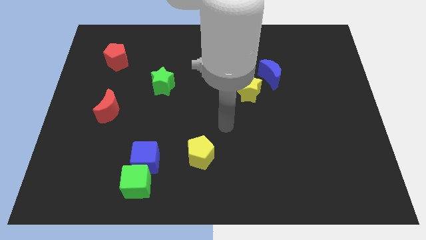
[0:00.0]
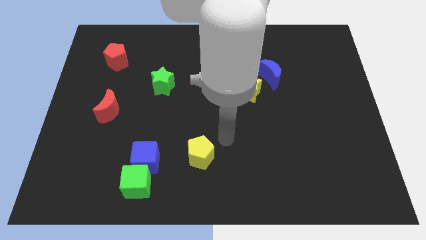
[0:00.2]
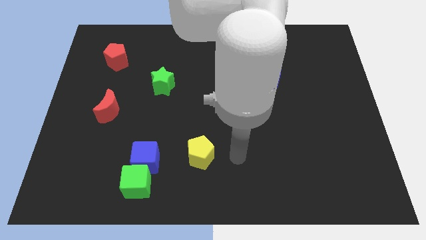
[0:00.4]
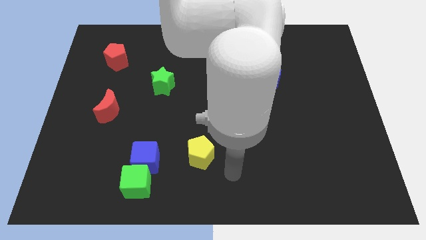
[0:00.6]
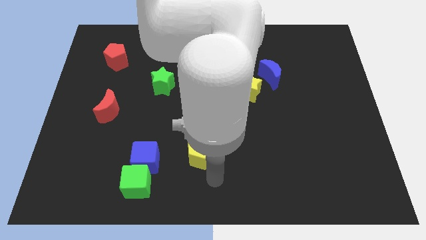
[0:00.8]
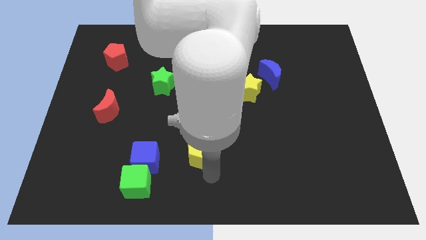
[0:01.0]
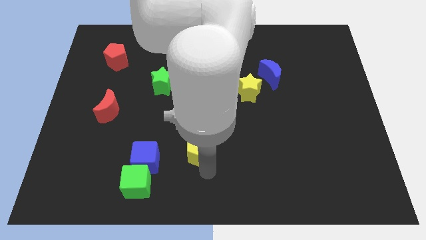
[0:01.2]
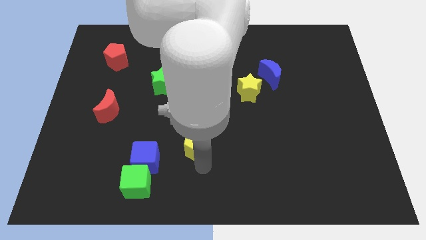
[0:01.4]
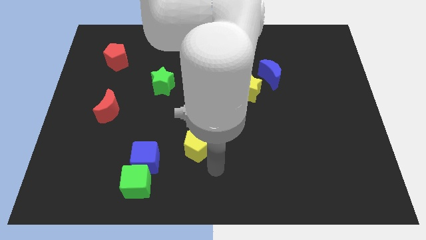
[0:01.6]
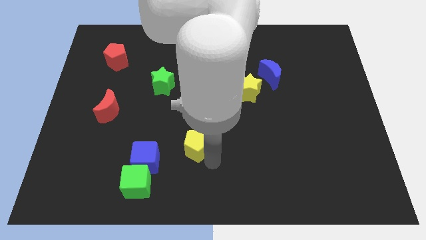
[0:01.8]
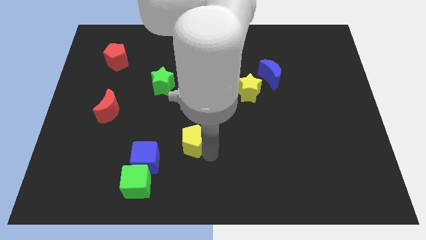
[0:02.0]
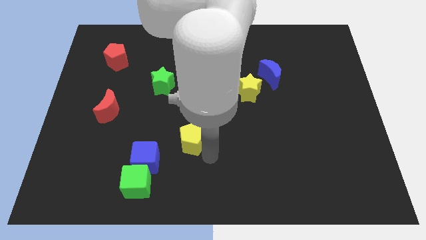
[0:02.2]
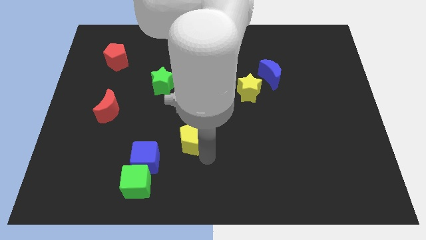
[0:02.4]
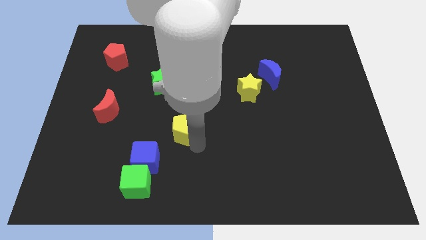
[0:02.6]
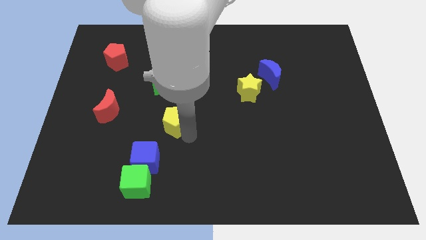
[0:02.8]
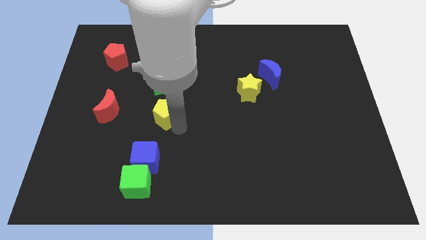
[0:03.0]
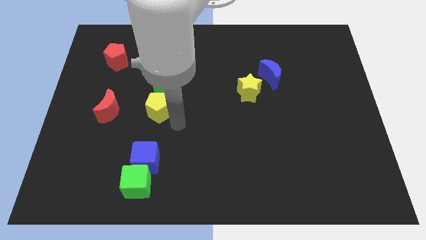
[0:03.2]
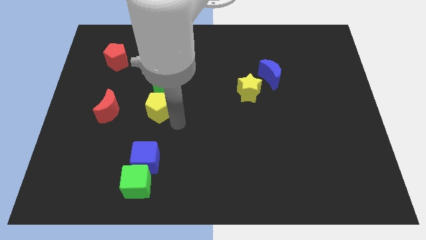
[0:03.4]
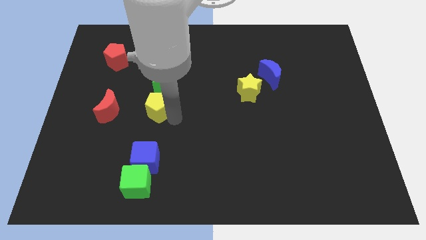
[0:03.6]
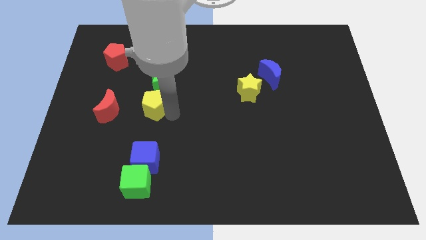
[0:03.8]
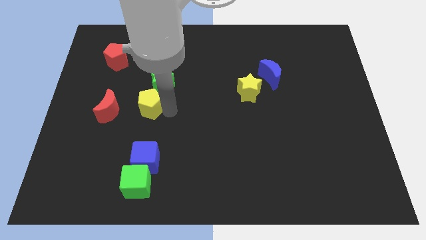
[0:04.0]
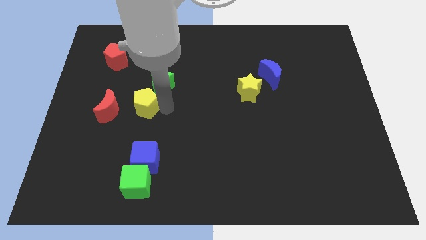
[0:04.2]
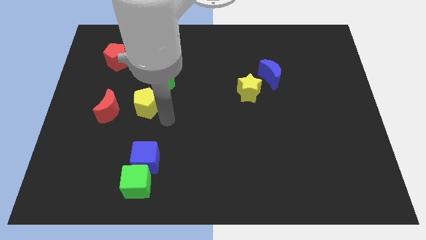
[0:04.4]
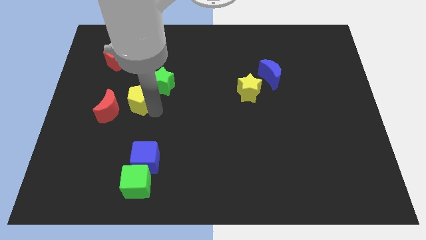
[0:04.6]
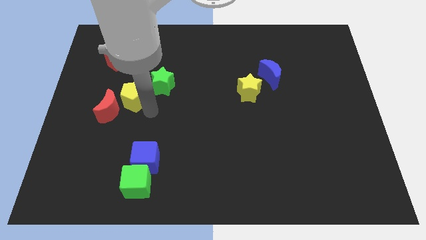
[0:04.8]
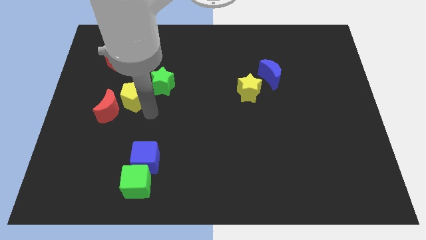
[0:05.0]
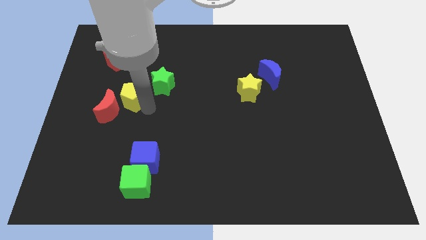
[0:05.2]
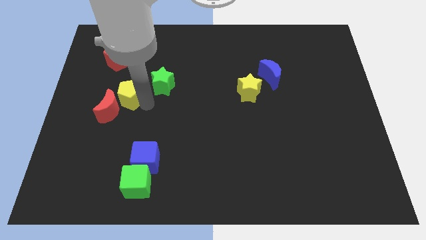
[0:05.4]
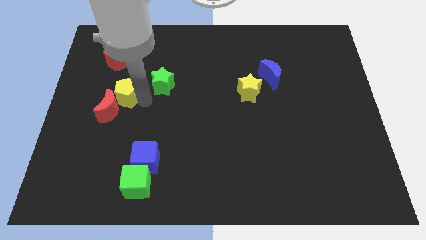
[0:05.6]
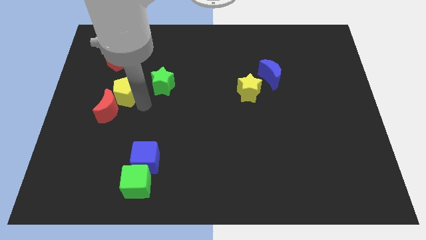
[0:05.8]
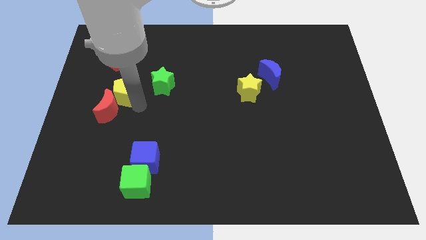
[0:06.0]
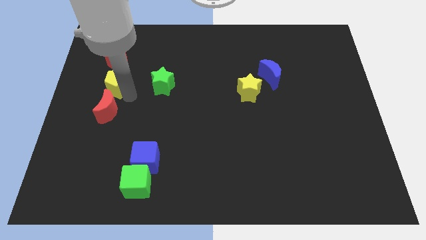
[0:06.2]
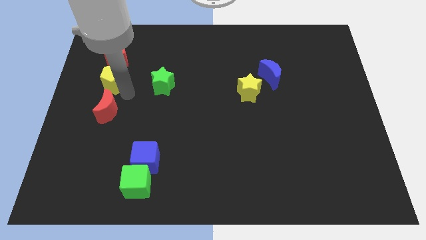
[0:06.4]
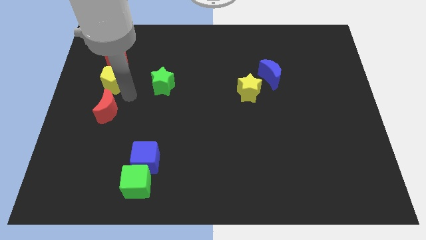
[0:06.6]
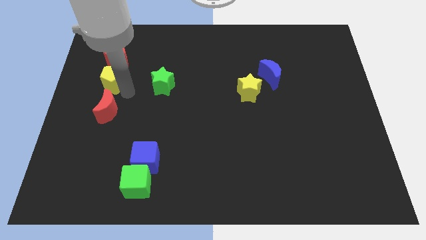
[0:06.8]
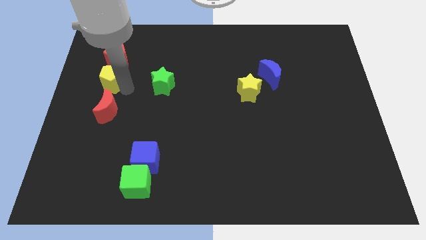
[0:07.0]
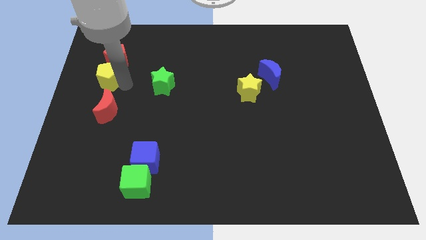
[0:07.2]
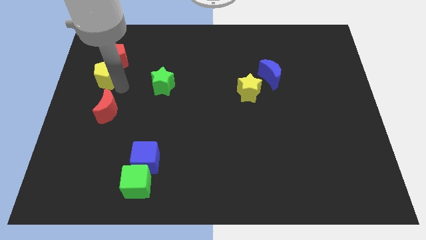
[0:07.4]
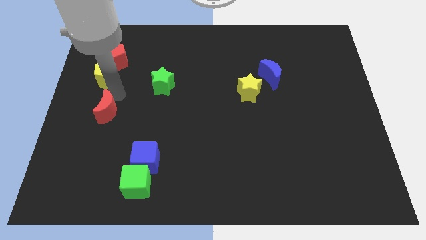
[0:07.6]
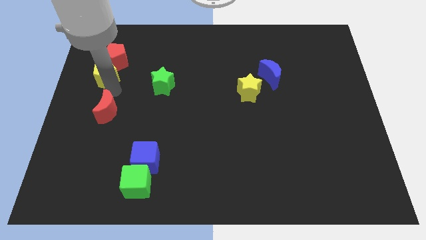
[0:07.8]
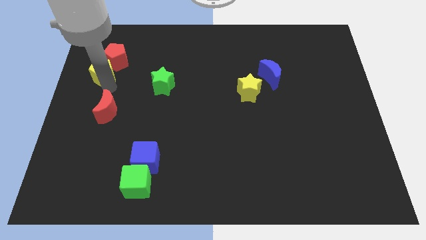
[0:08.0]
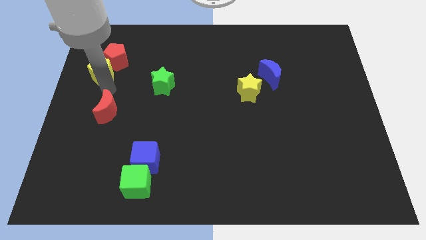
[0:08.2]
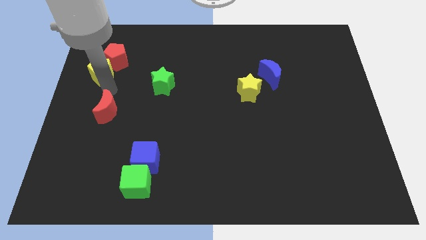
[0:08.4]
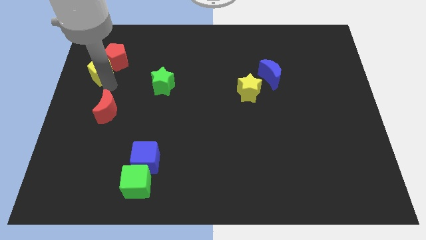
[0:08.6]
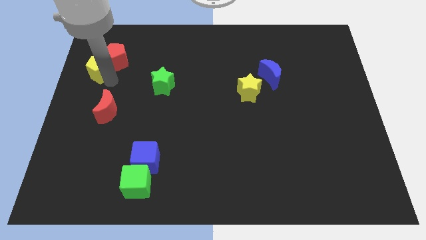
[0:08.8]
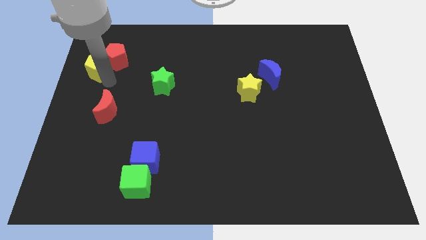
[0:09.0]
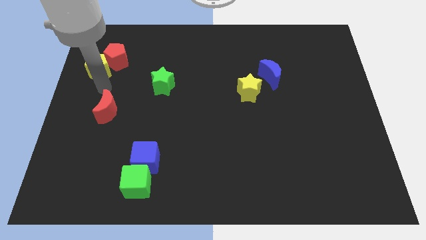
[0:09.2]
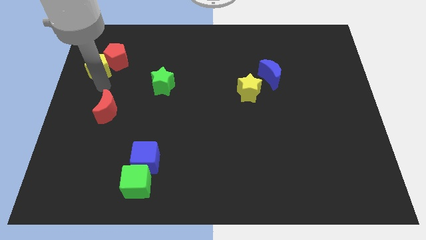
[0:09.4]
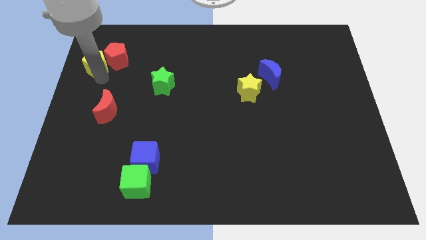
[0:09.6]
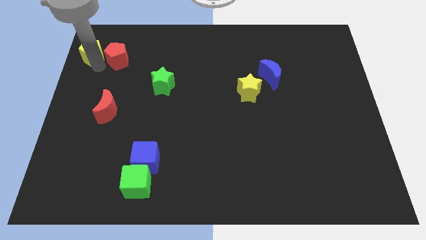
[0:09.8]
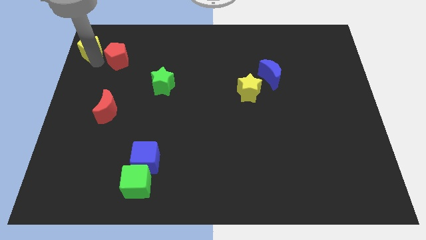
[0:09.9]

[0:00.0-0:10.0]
slide the yellow pentagon to the top left
